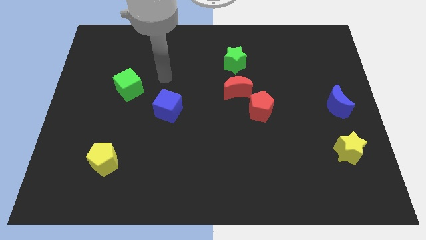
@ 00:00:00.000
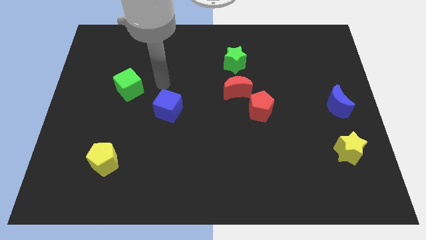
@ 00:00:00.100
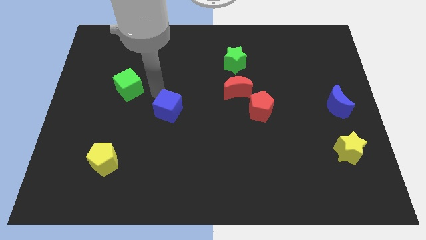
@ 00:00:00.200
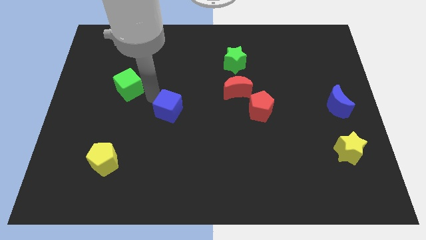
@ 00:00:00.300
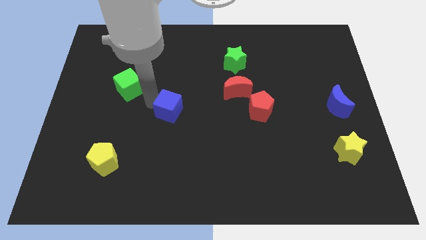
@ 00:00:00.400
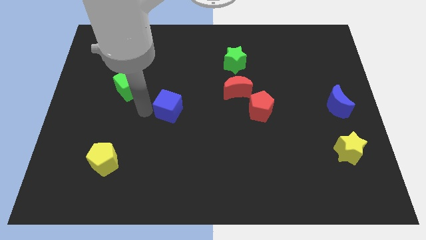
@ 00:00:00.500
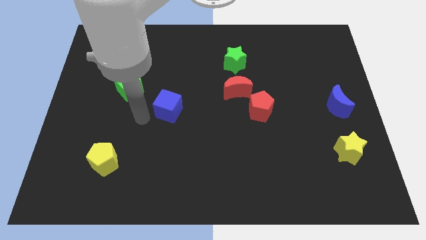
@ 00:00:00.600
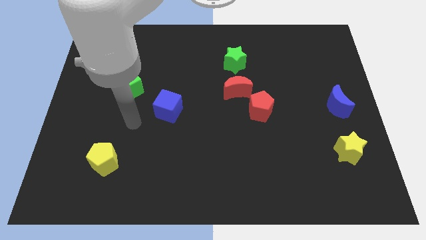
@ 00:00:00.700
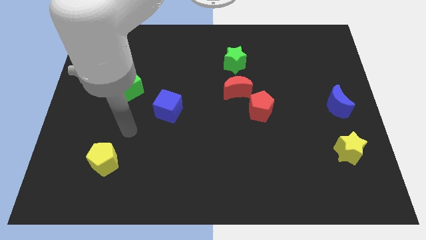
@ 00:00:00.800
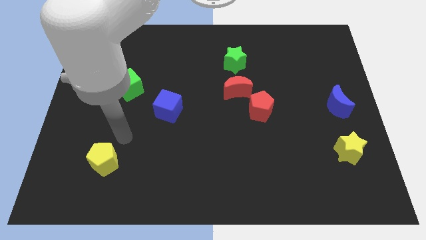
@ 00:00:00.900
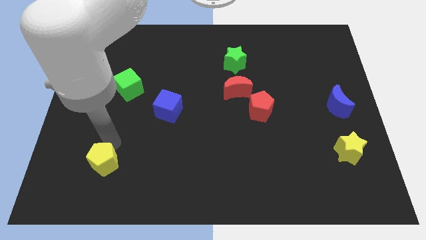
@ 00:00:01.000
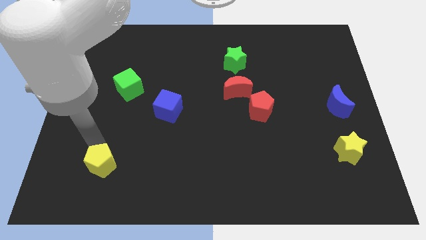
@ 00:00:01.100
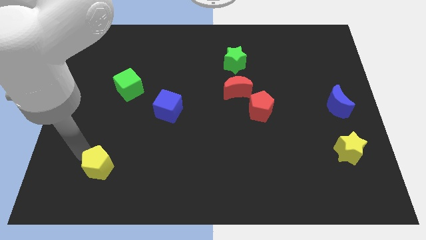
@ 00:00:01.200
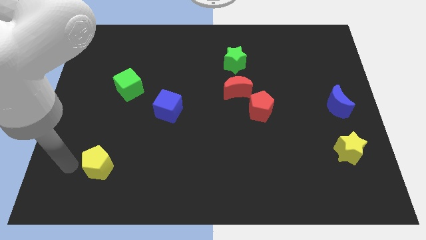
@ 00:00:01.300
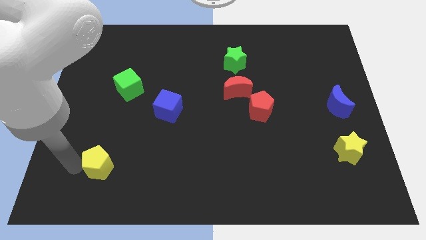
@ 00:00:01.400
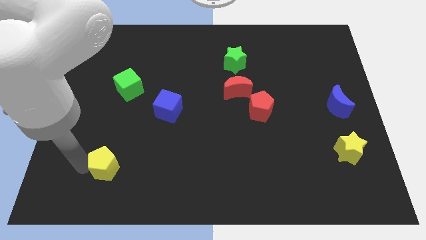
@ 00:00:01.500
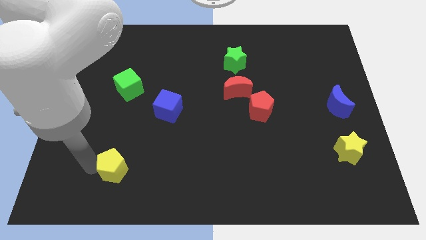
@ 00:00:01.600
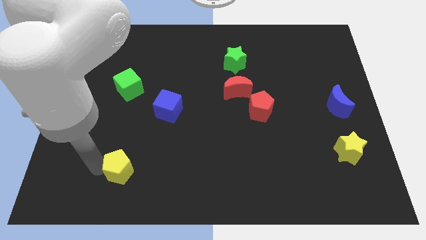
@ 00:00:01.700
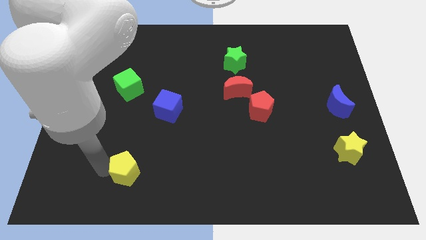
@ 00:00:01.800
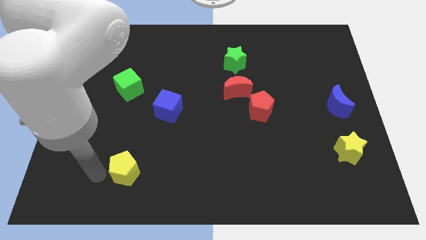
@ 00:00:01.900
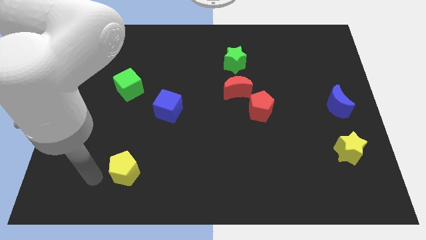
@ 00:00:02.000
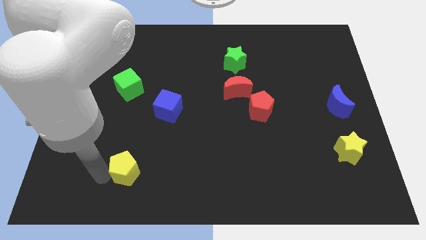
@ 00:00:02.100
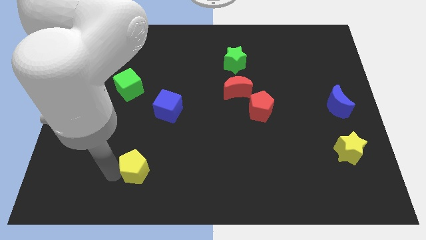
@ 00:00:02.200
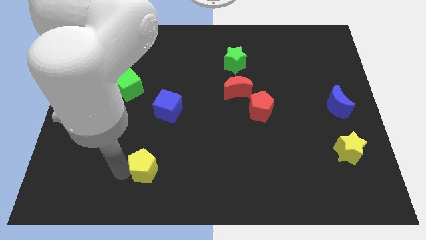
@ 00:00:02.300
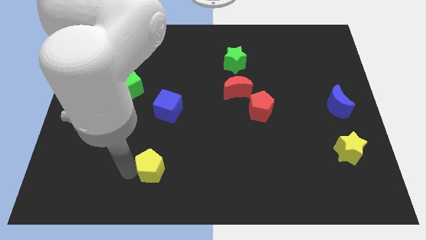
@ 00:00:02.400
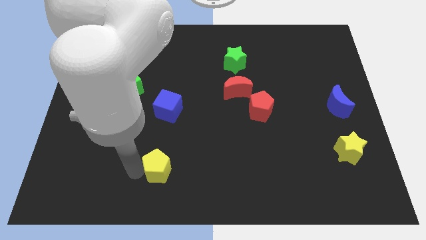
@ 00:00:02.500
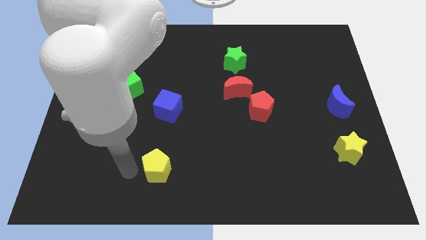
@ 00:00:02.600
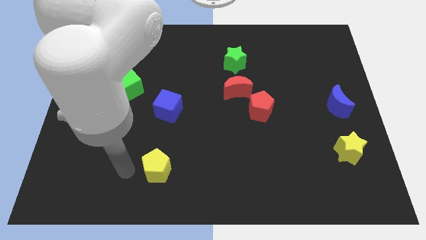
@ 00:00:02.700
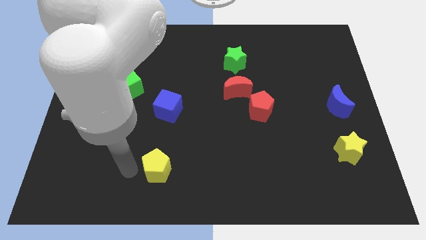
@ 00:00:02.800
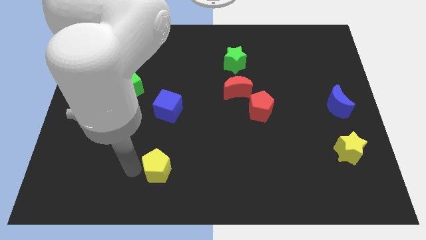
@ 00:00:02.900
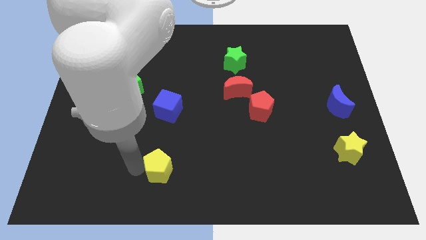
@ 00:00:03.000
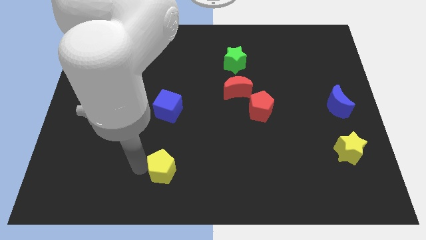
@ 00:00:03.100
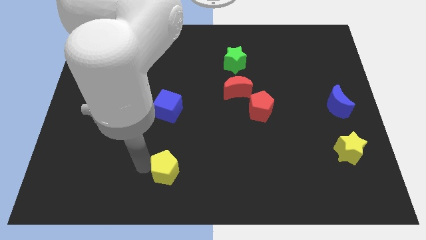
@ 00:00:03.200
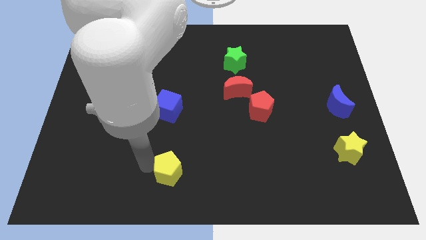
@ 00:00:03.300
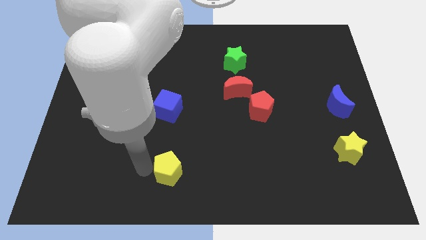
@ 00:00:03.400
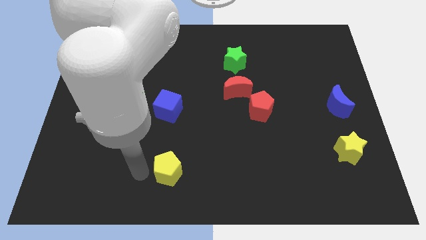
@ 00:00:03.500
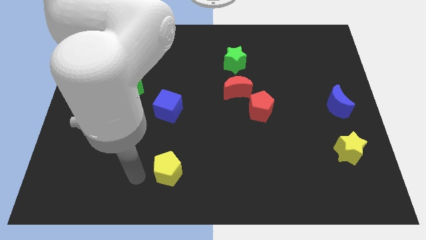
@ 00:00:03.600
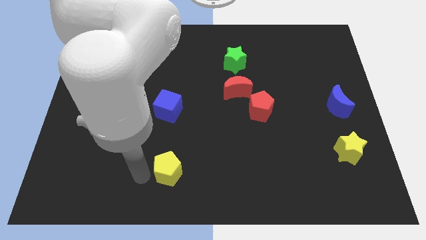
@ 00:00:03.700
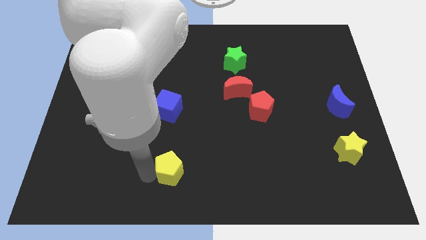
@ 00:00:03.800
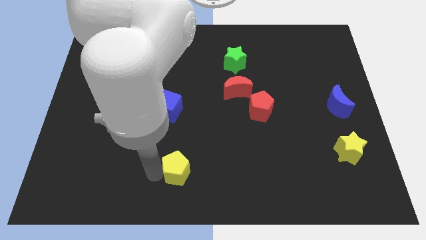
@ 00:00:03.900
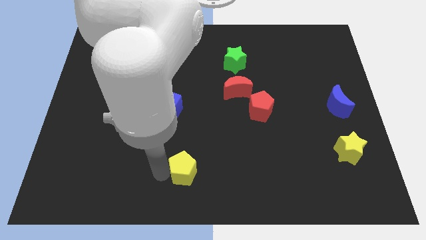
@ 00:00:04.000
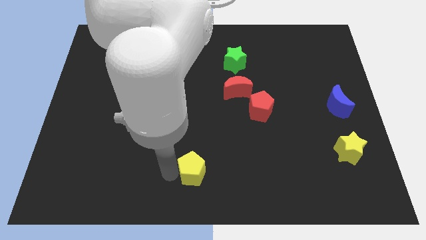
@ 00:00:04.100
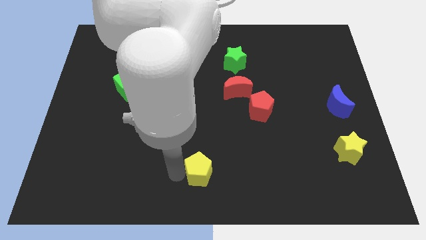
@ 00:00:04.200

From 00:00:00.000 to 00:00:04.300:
push the yellow pentagon right

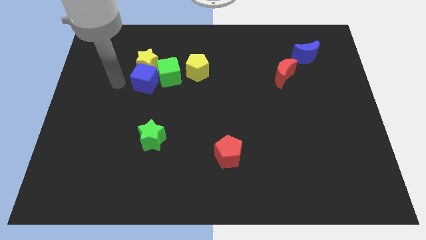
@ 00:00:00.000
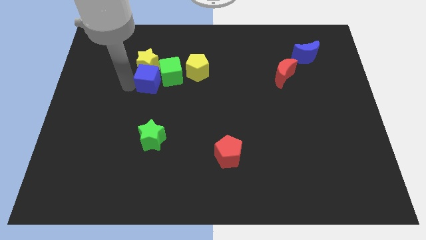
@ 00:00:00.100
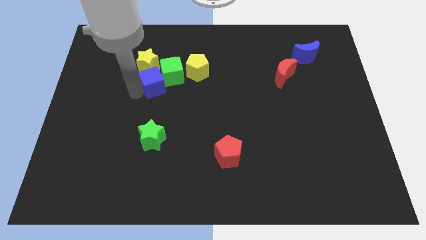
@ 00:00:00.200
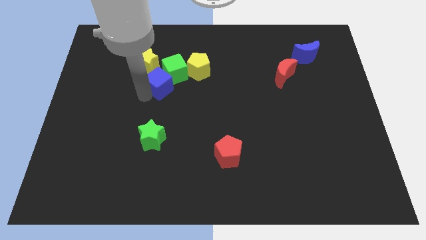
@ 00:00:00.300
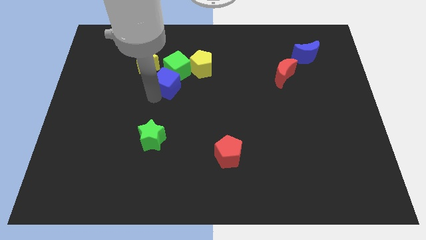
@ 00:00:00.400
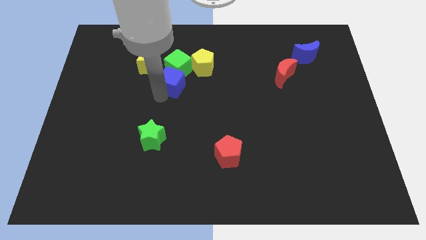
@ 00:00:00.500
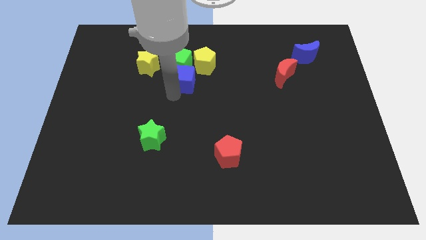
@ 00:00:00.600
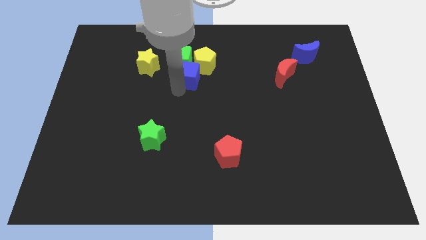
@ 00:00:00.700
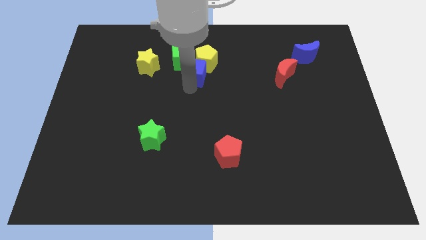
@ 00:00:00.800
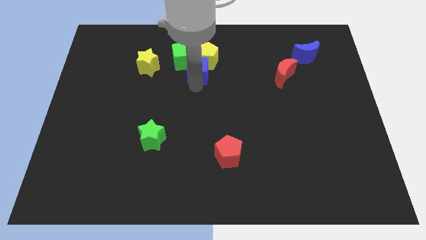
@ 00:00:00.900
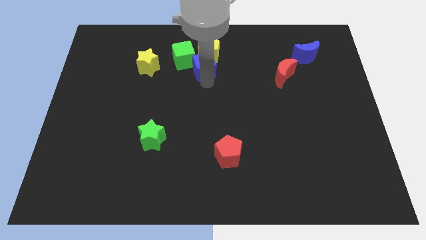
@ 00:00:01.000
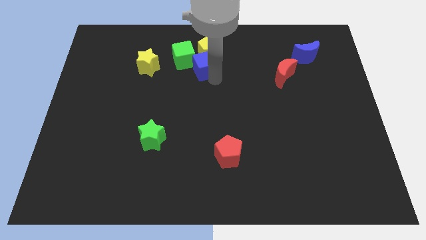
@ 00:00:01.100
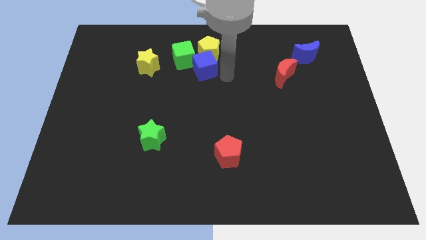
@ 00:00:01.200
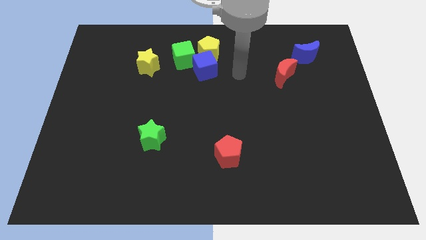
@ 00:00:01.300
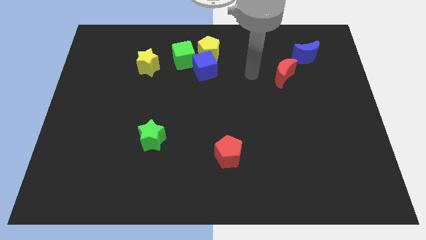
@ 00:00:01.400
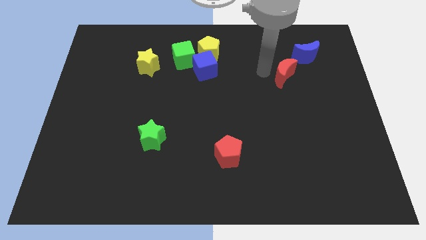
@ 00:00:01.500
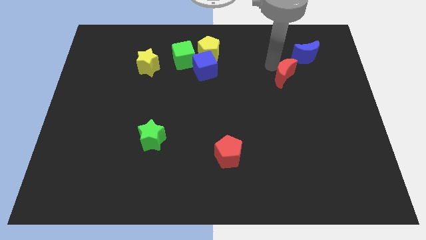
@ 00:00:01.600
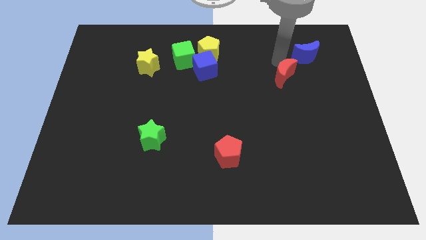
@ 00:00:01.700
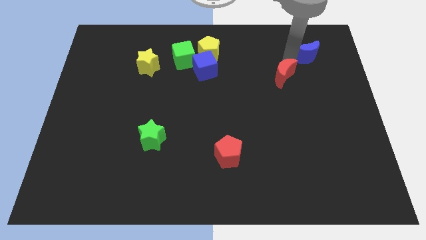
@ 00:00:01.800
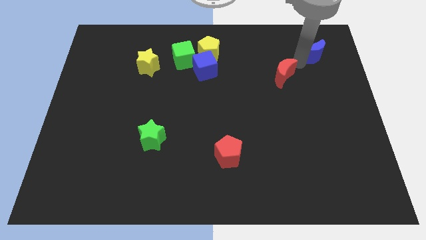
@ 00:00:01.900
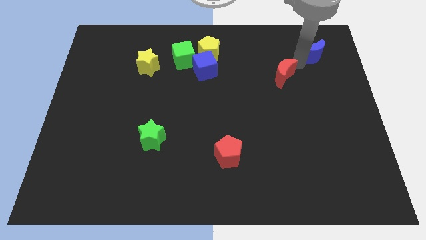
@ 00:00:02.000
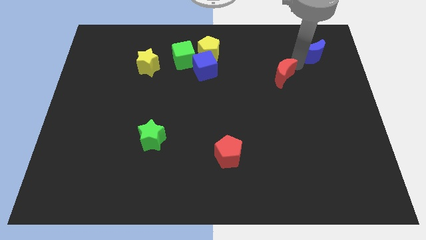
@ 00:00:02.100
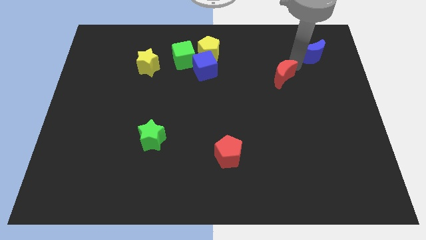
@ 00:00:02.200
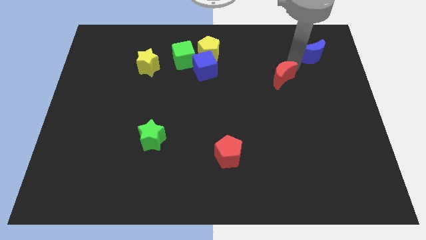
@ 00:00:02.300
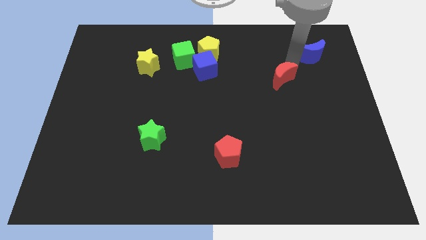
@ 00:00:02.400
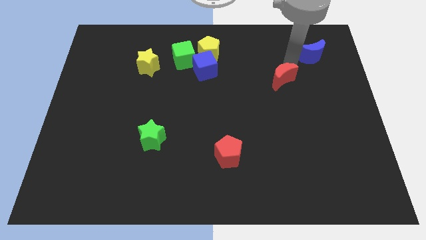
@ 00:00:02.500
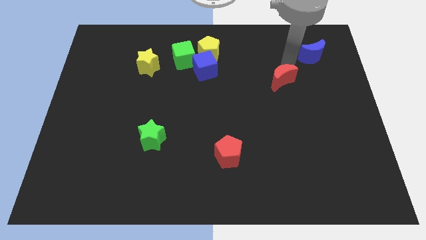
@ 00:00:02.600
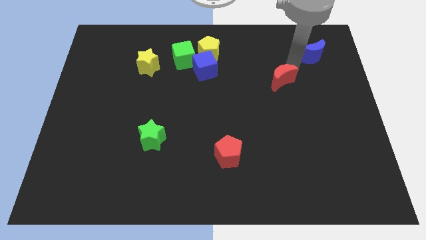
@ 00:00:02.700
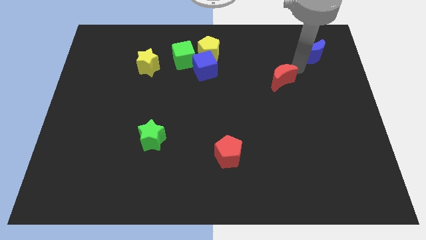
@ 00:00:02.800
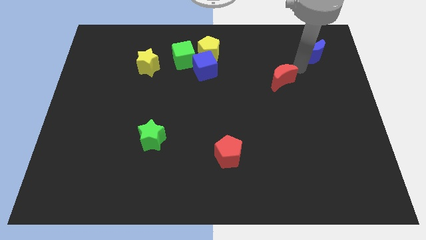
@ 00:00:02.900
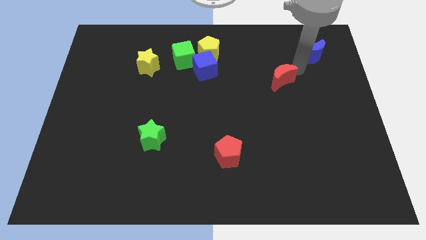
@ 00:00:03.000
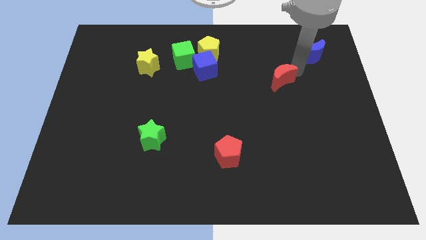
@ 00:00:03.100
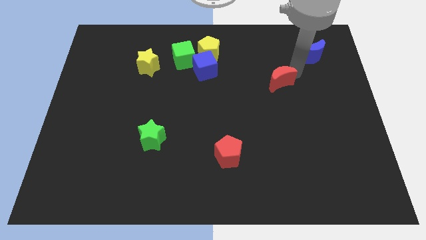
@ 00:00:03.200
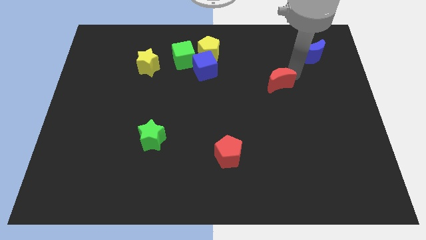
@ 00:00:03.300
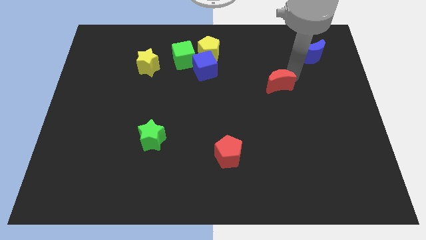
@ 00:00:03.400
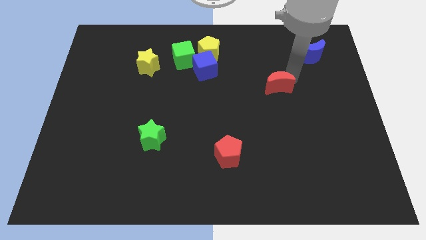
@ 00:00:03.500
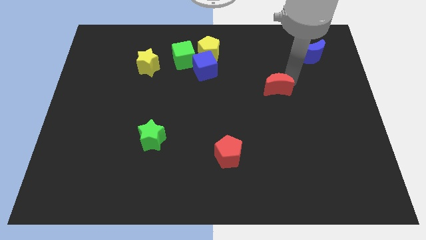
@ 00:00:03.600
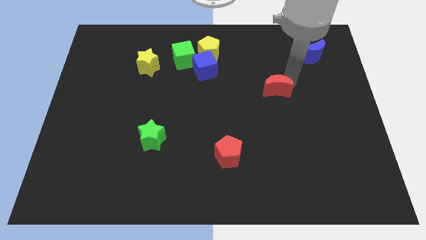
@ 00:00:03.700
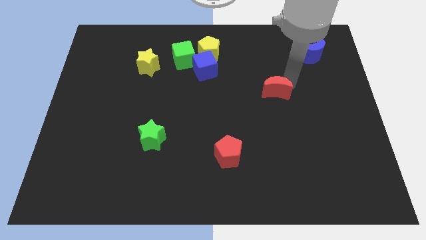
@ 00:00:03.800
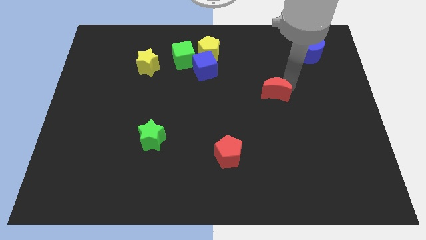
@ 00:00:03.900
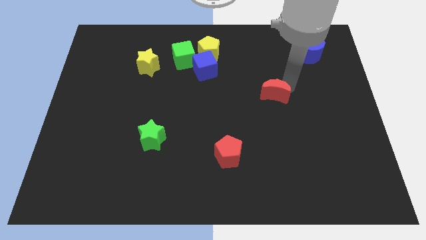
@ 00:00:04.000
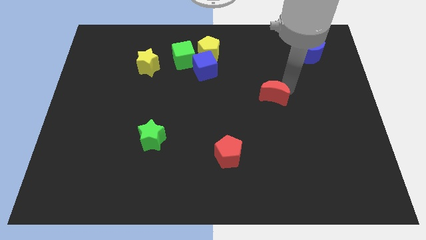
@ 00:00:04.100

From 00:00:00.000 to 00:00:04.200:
push the red moon a bit down and left diagonally
